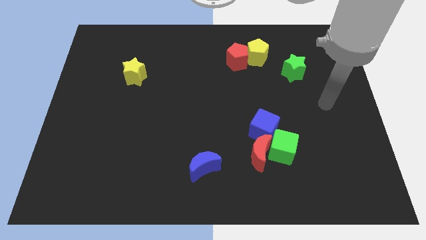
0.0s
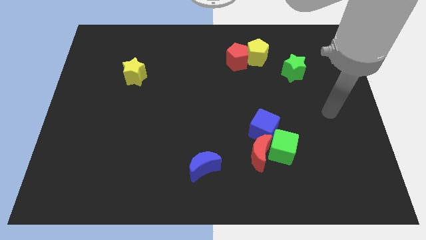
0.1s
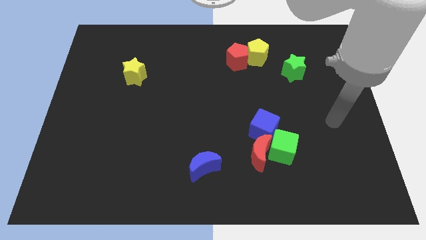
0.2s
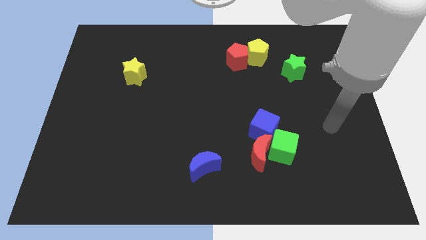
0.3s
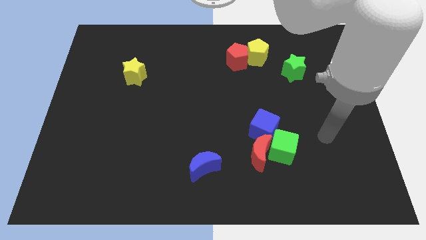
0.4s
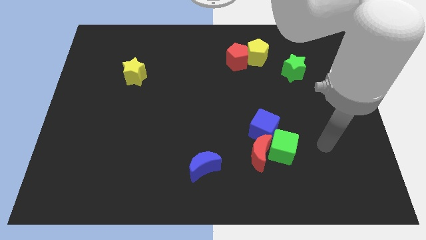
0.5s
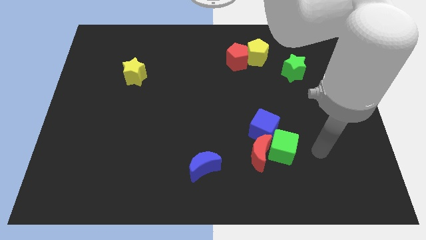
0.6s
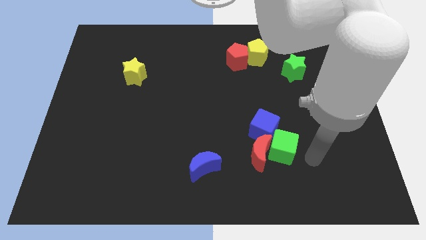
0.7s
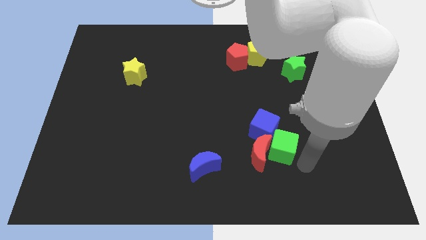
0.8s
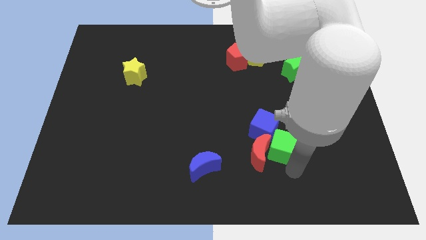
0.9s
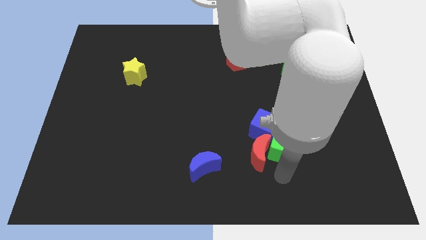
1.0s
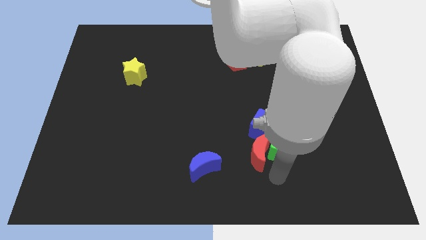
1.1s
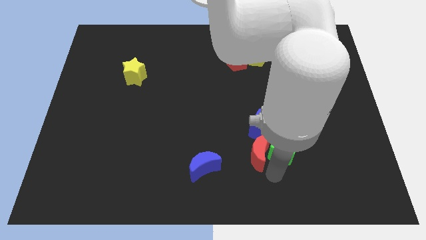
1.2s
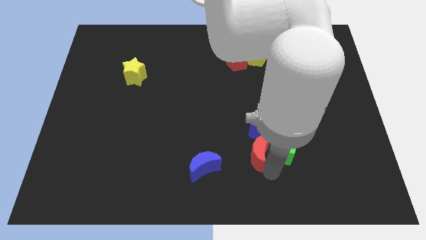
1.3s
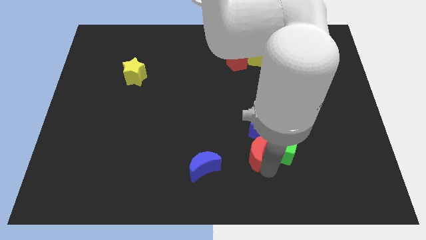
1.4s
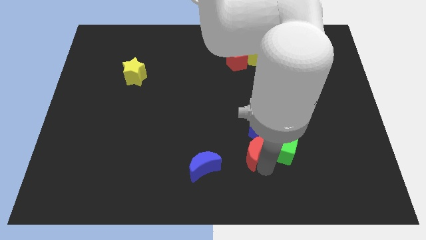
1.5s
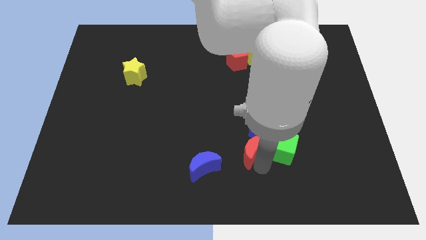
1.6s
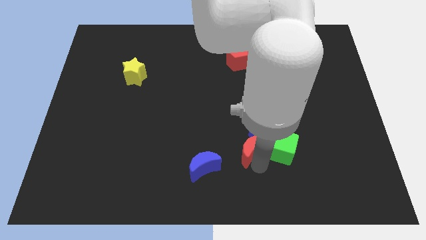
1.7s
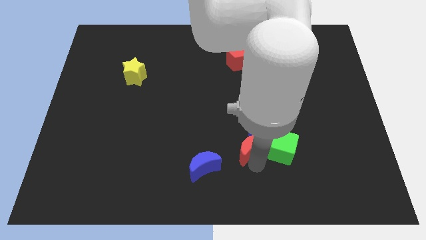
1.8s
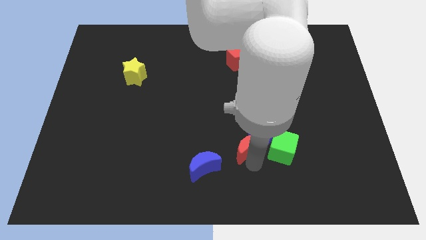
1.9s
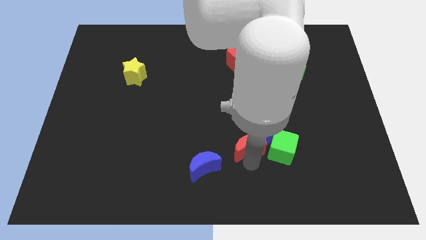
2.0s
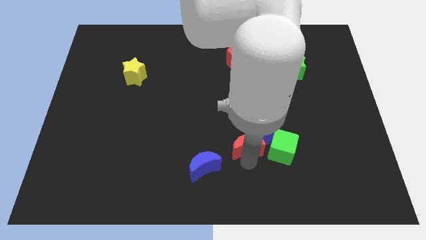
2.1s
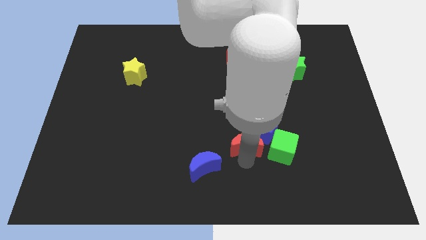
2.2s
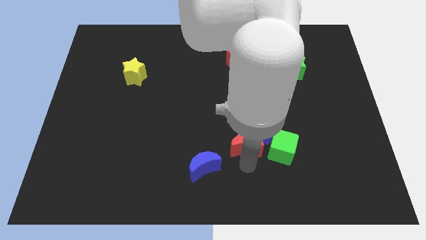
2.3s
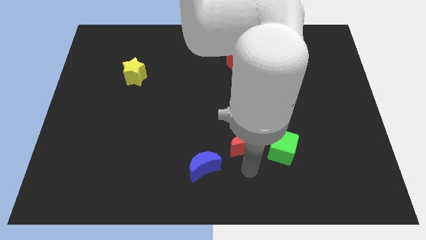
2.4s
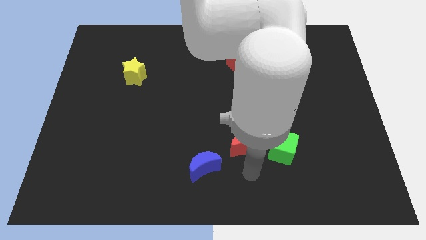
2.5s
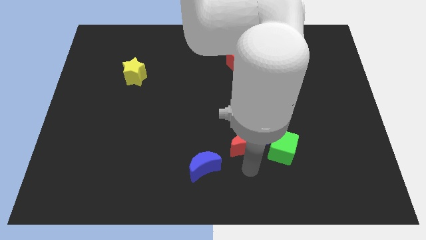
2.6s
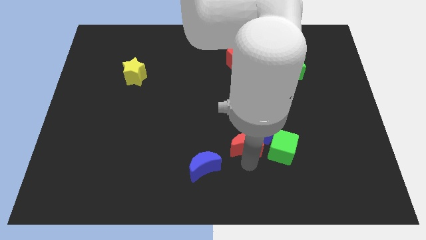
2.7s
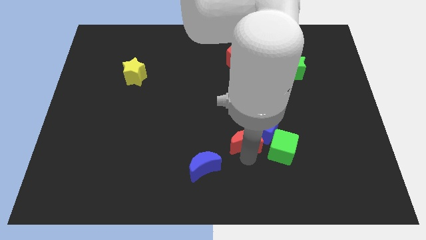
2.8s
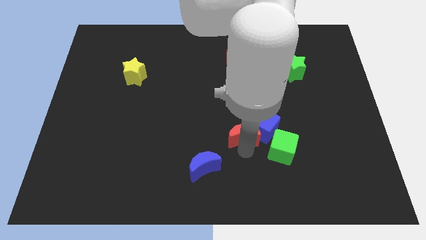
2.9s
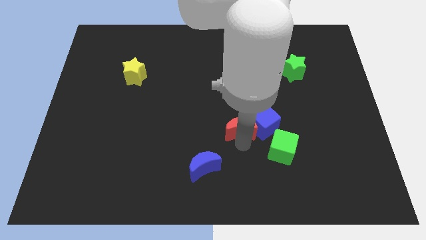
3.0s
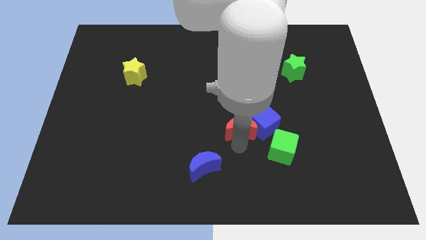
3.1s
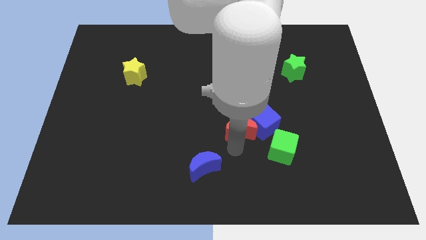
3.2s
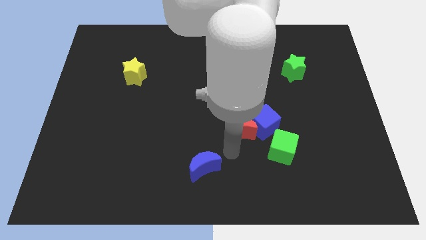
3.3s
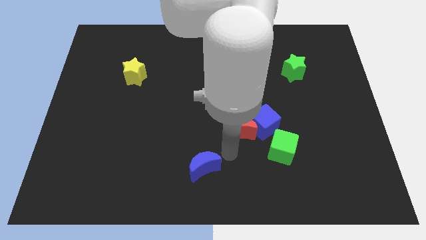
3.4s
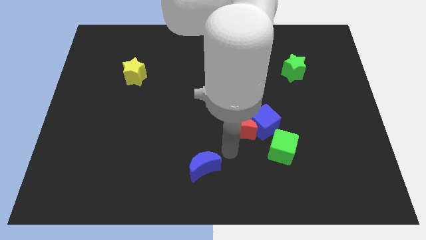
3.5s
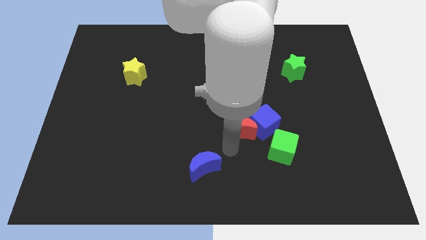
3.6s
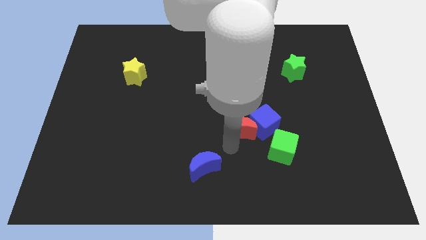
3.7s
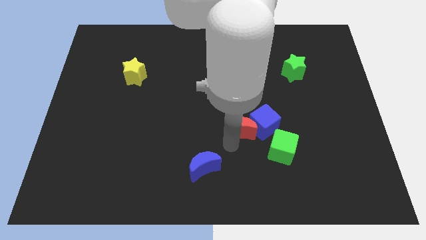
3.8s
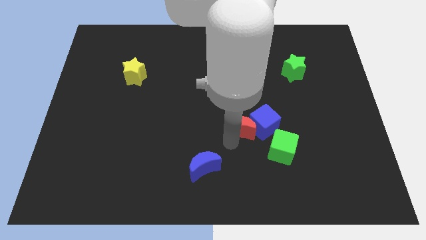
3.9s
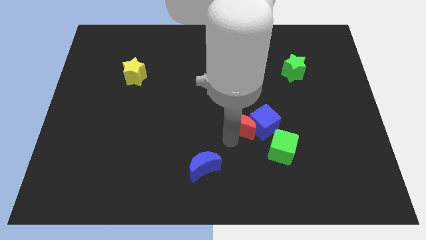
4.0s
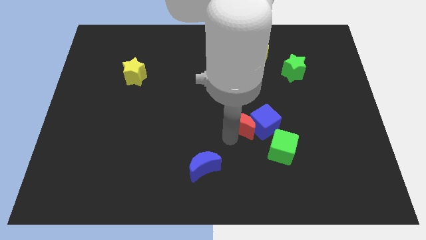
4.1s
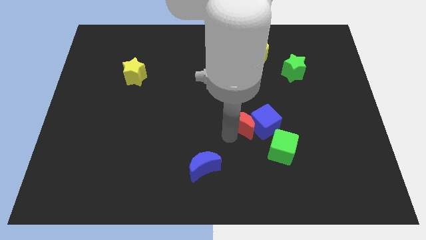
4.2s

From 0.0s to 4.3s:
slide the red moon up a little

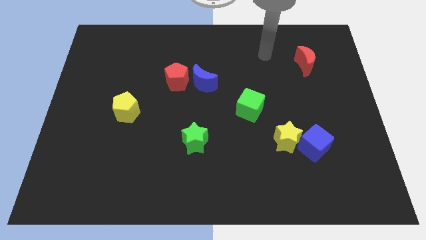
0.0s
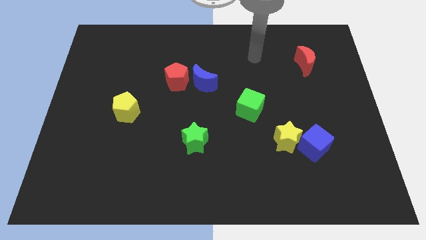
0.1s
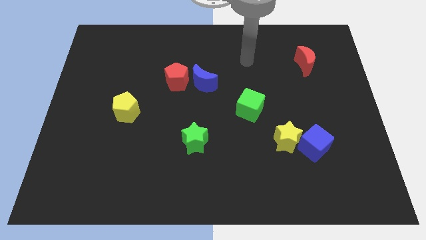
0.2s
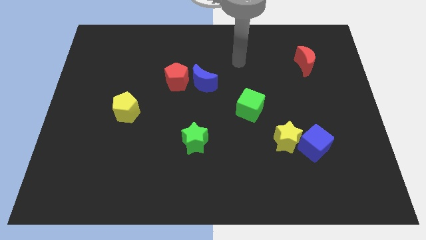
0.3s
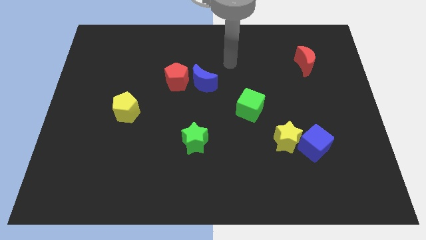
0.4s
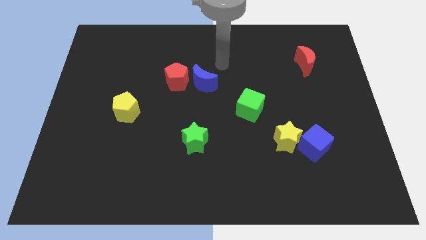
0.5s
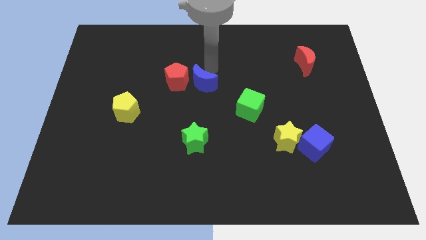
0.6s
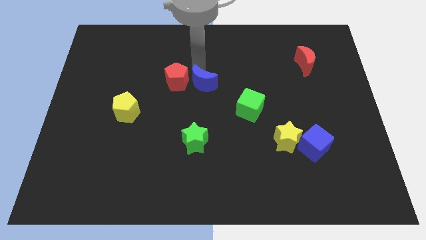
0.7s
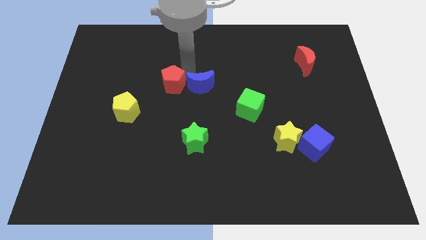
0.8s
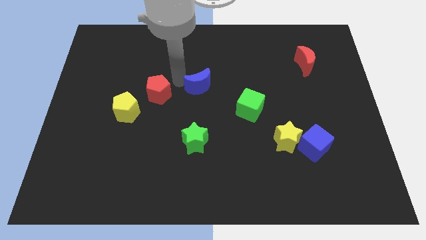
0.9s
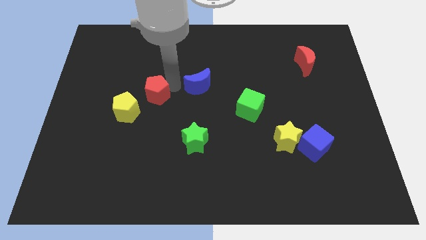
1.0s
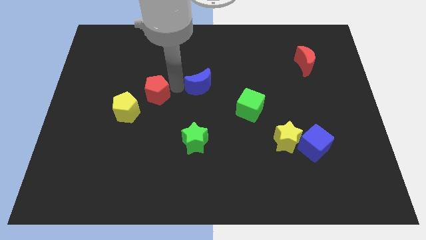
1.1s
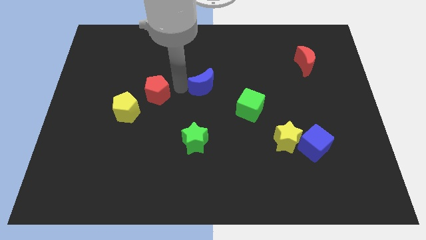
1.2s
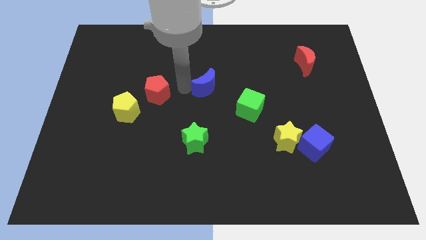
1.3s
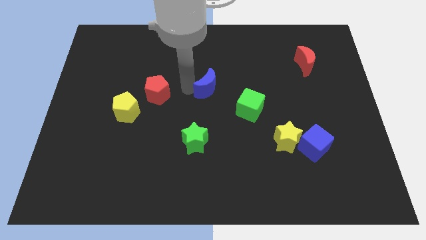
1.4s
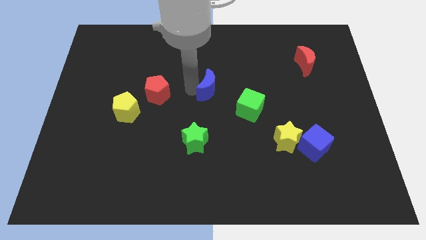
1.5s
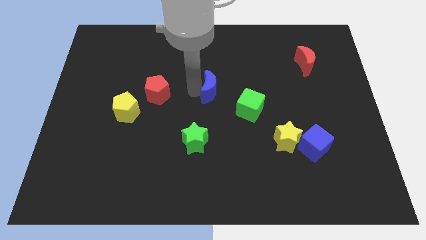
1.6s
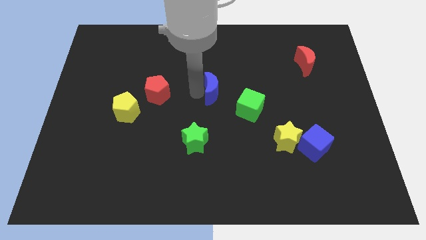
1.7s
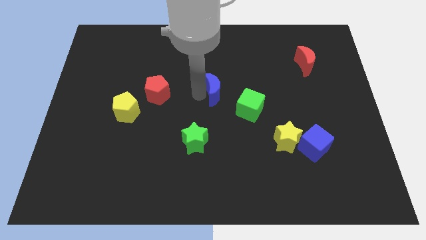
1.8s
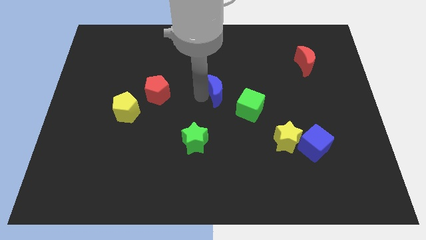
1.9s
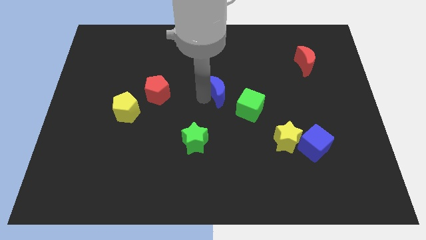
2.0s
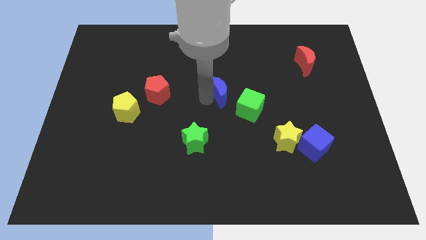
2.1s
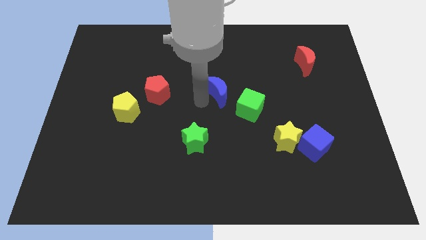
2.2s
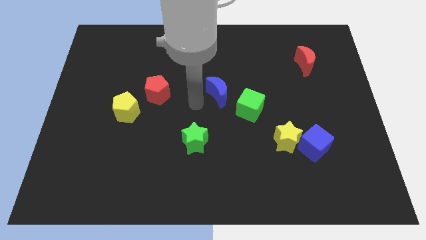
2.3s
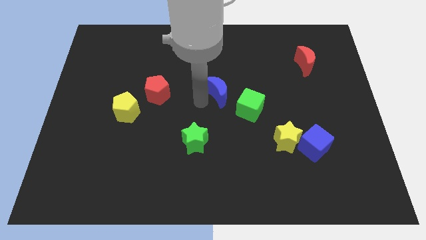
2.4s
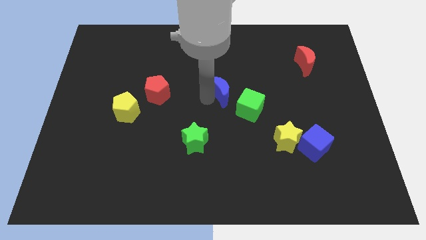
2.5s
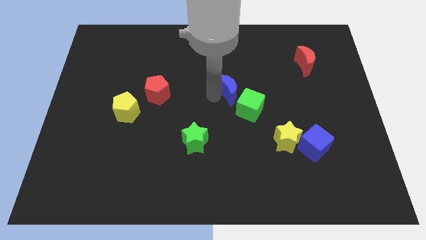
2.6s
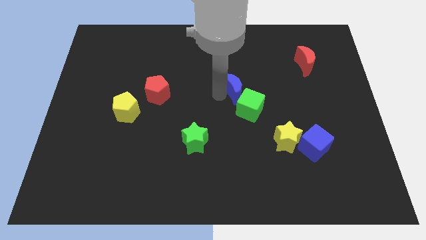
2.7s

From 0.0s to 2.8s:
slightly push the blue moon to the right

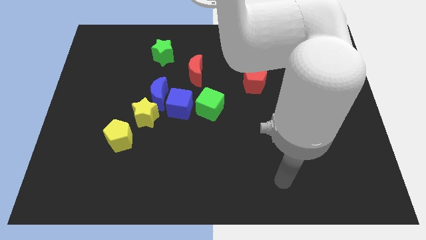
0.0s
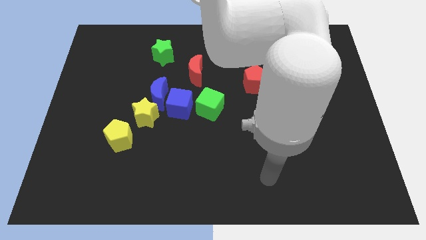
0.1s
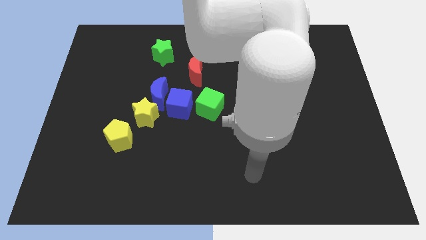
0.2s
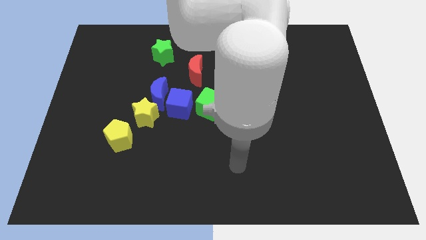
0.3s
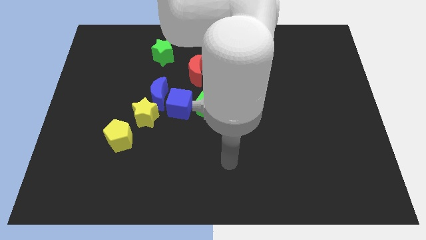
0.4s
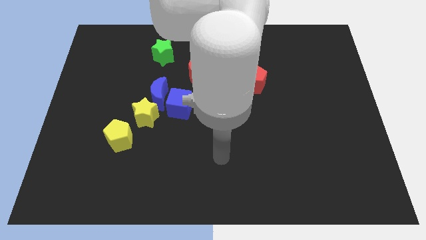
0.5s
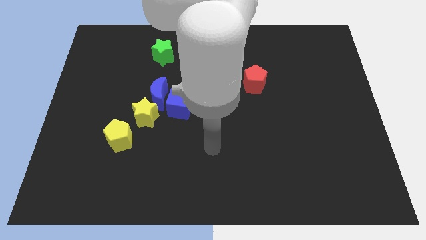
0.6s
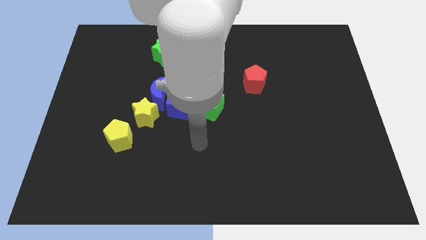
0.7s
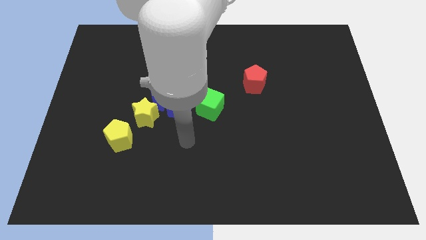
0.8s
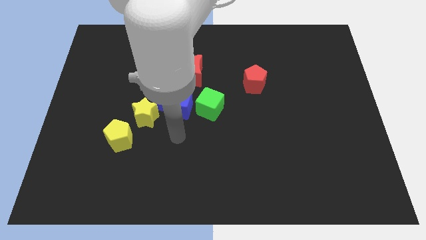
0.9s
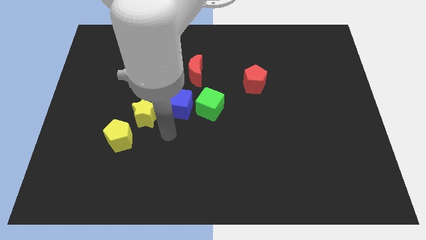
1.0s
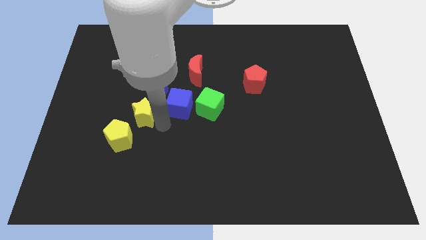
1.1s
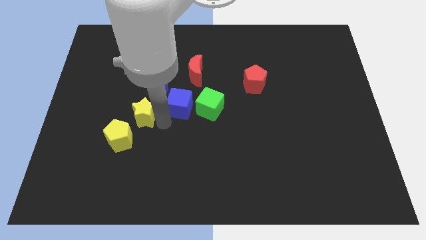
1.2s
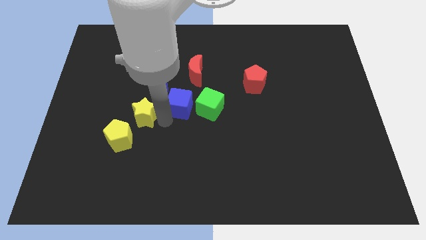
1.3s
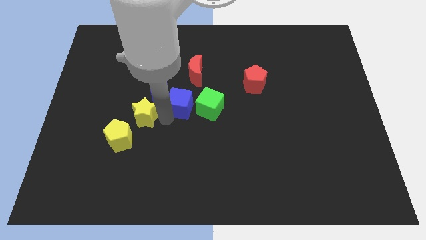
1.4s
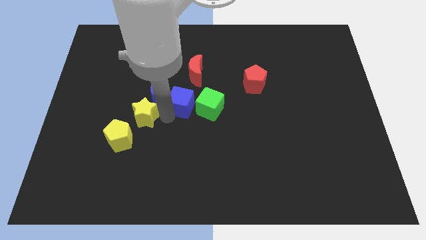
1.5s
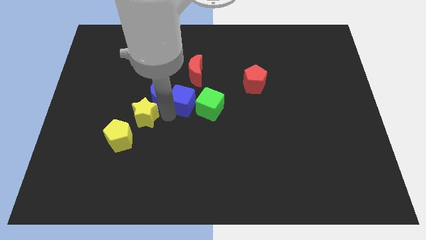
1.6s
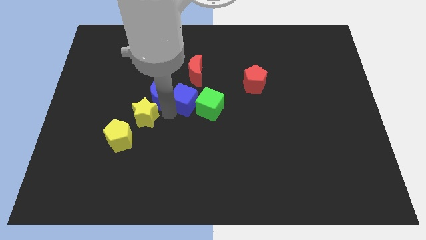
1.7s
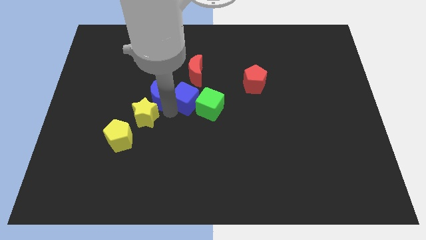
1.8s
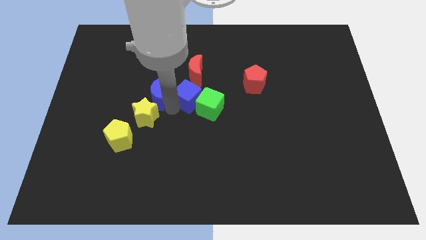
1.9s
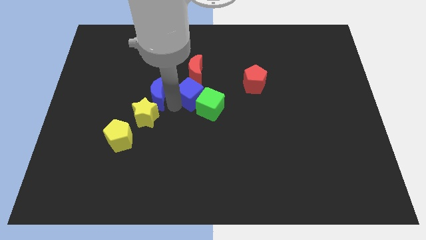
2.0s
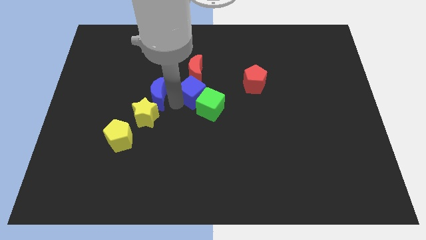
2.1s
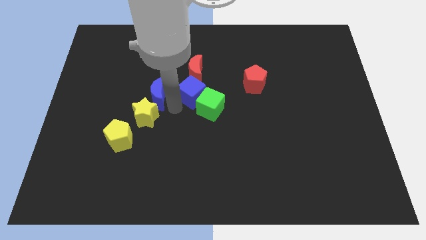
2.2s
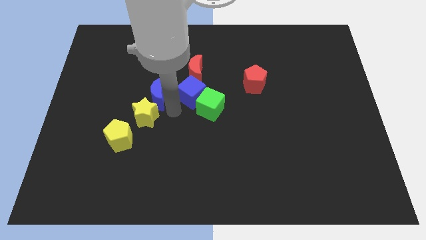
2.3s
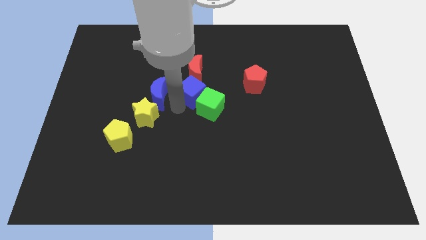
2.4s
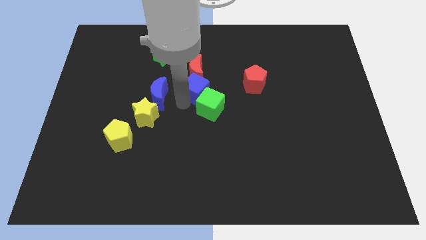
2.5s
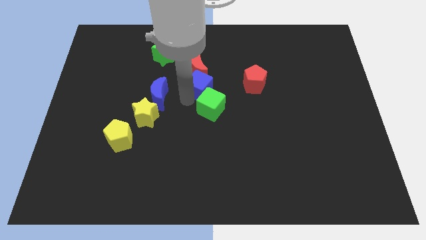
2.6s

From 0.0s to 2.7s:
push the blue cube up and to the right somewhat
